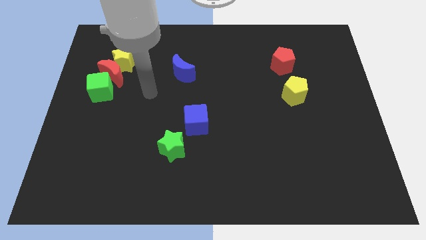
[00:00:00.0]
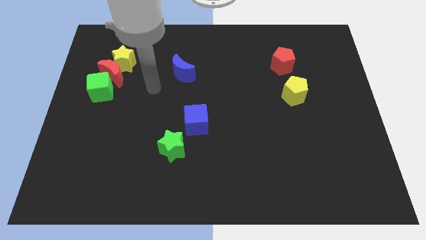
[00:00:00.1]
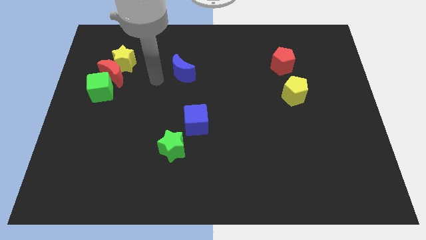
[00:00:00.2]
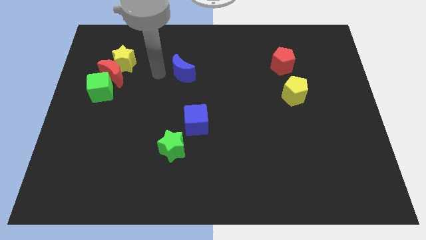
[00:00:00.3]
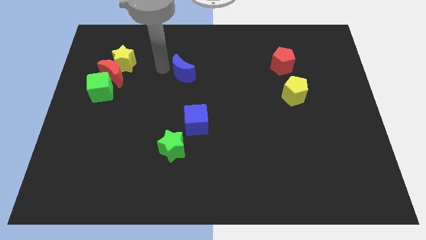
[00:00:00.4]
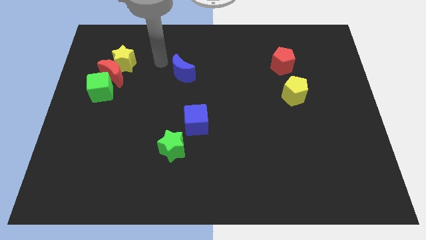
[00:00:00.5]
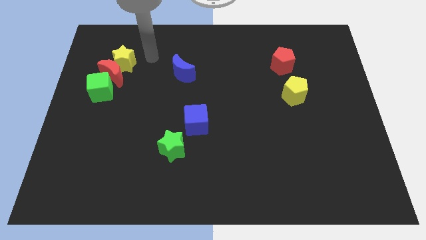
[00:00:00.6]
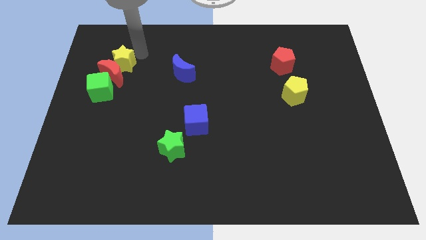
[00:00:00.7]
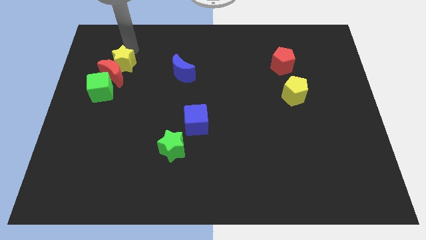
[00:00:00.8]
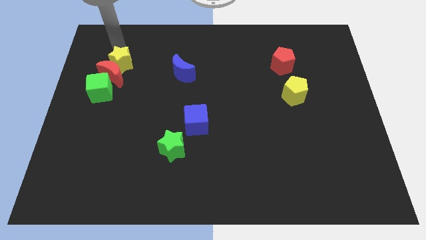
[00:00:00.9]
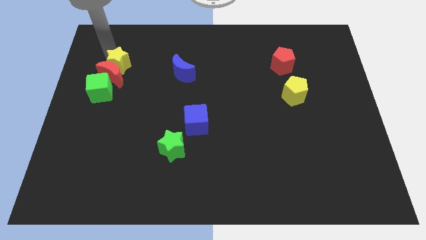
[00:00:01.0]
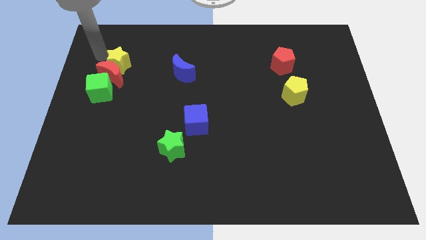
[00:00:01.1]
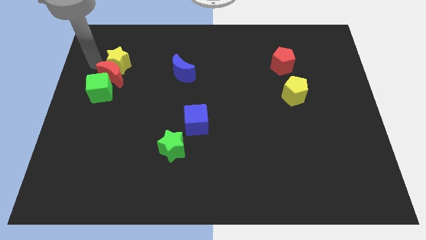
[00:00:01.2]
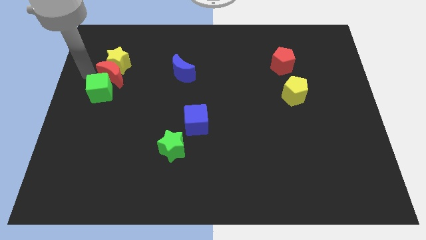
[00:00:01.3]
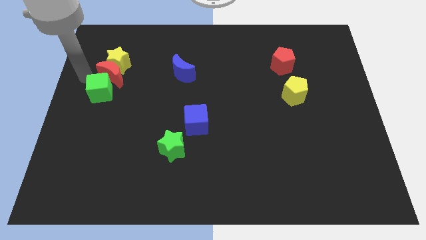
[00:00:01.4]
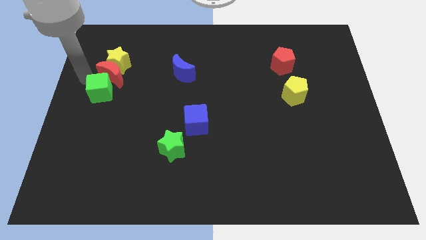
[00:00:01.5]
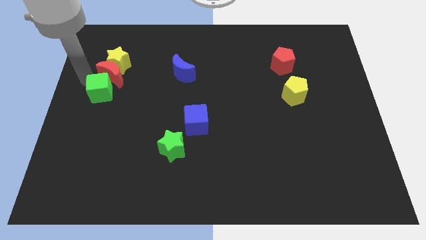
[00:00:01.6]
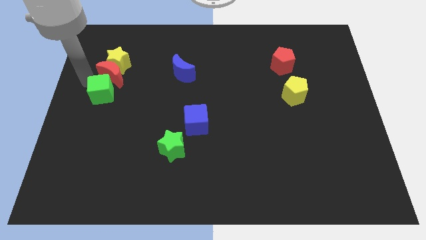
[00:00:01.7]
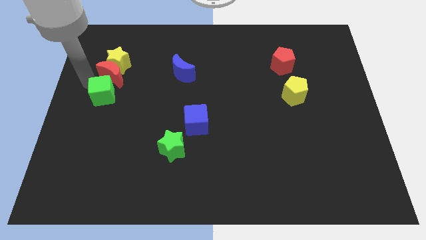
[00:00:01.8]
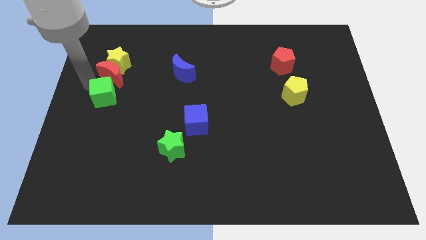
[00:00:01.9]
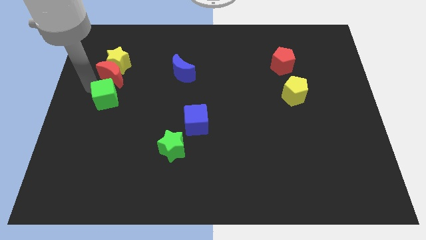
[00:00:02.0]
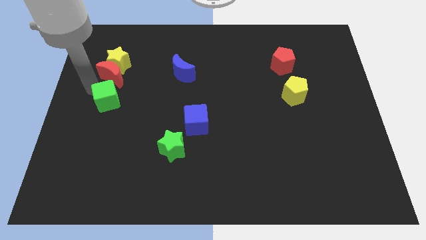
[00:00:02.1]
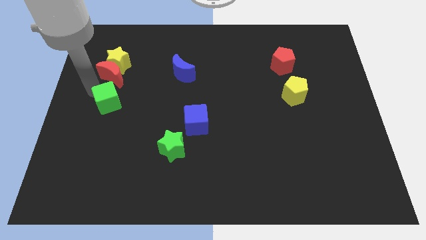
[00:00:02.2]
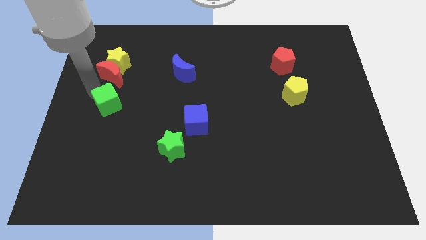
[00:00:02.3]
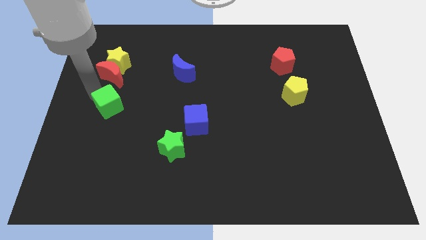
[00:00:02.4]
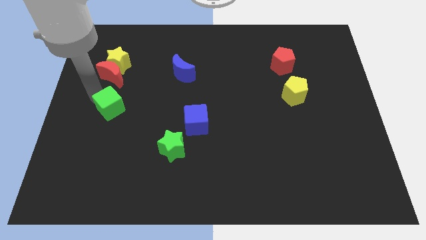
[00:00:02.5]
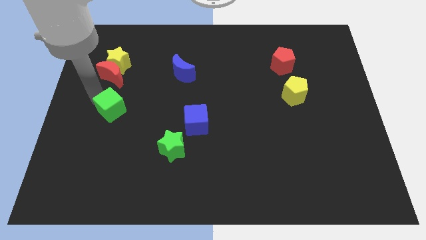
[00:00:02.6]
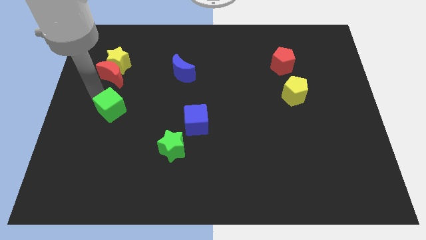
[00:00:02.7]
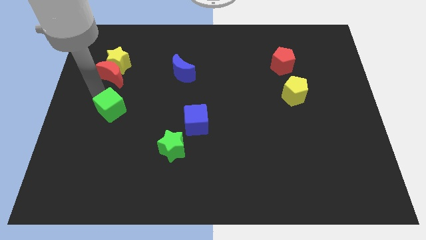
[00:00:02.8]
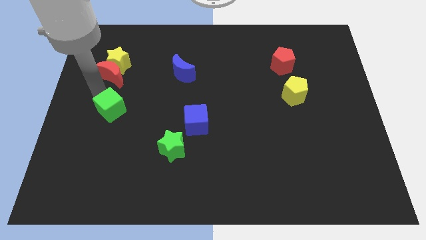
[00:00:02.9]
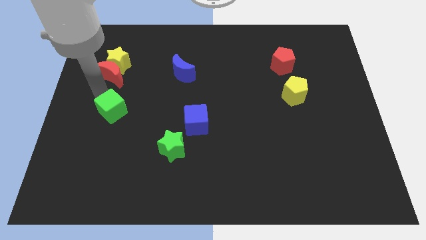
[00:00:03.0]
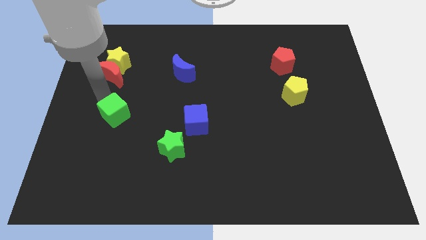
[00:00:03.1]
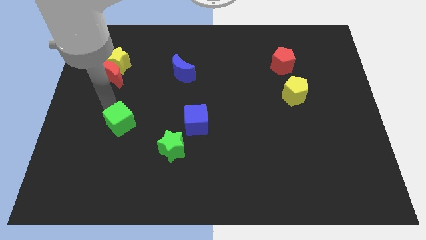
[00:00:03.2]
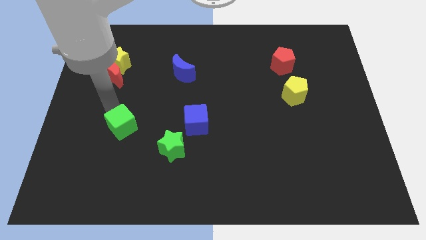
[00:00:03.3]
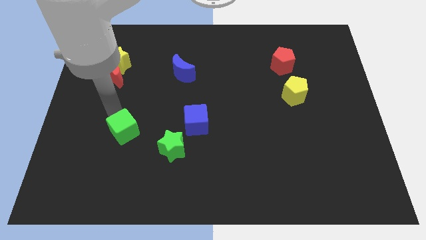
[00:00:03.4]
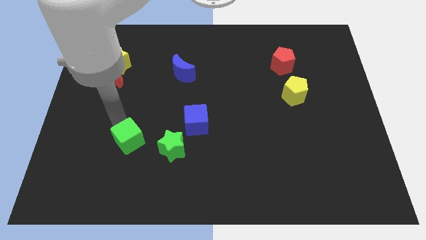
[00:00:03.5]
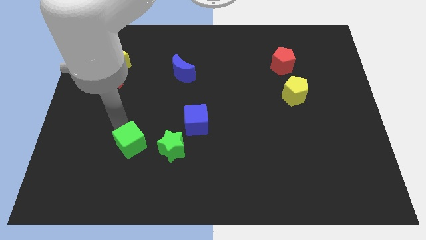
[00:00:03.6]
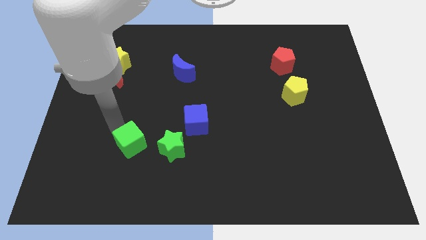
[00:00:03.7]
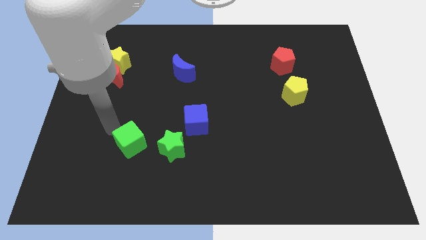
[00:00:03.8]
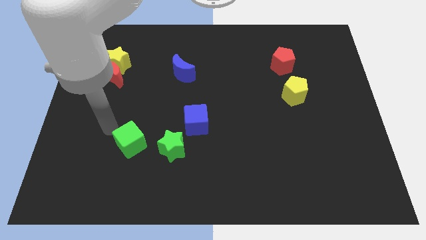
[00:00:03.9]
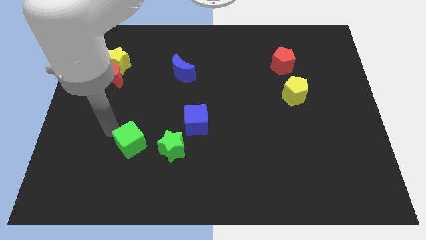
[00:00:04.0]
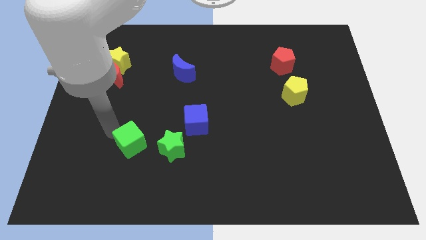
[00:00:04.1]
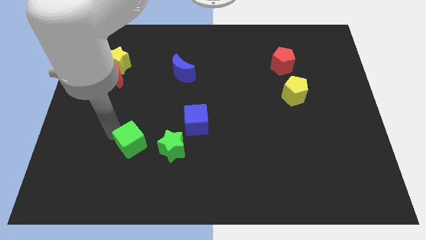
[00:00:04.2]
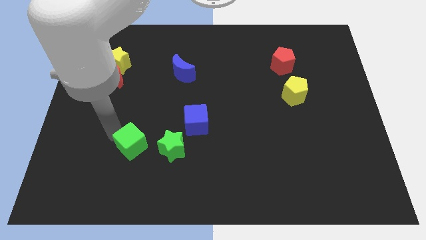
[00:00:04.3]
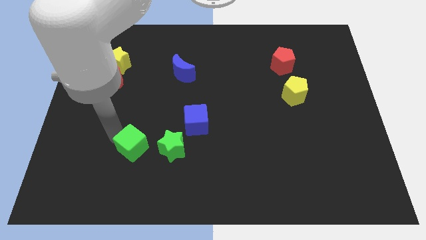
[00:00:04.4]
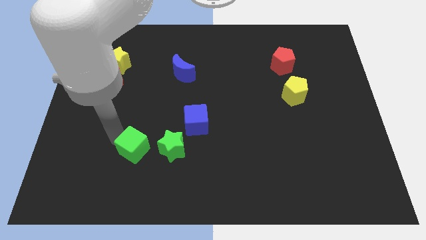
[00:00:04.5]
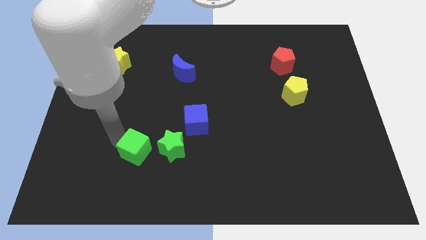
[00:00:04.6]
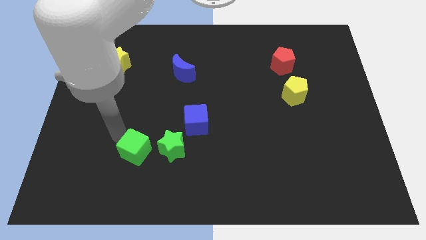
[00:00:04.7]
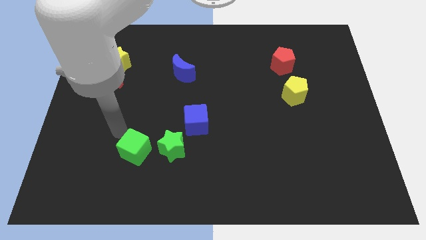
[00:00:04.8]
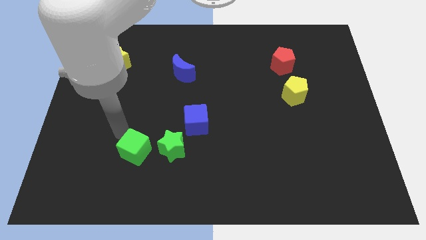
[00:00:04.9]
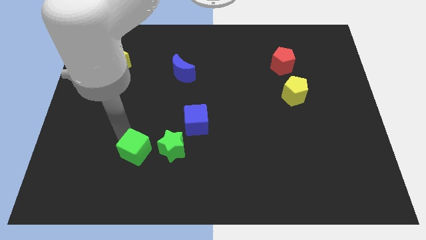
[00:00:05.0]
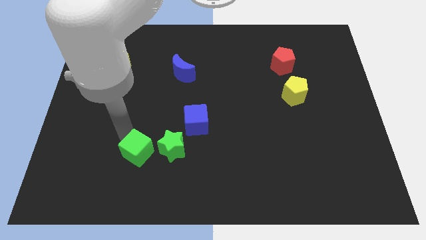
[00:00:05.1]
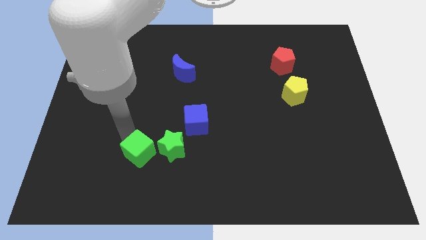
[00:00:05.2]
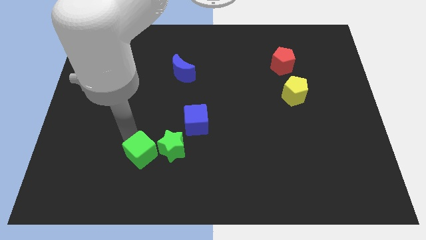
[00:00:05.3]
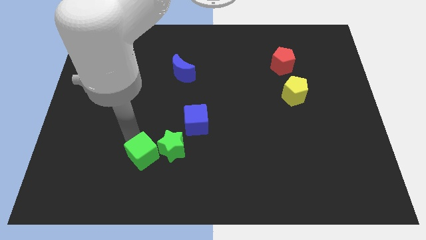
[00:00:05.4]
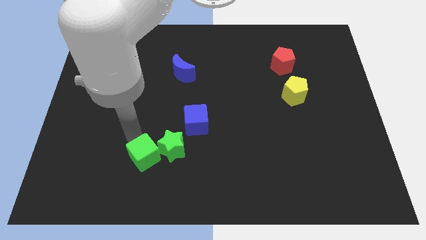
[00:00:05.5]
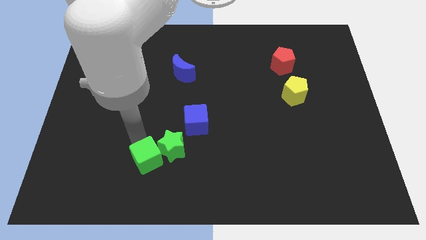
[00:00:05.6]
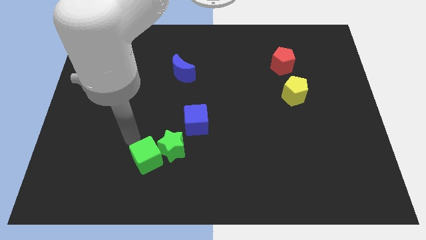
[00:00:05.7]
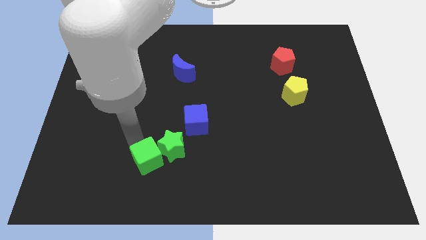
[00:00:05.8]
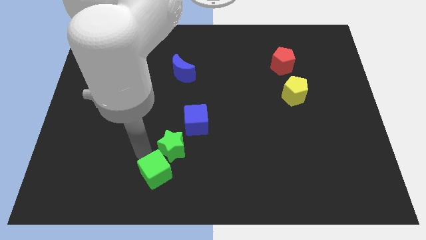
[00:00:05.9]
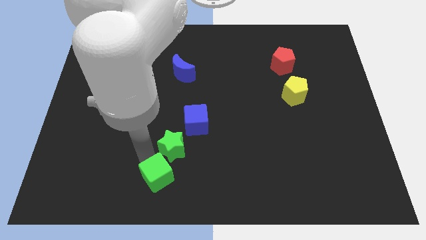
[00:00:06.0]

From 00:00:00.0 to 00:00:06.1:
push the green cube to the bottom side

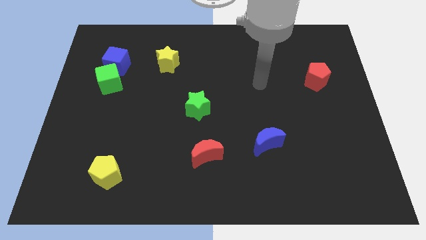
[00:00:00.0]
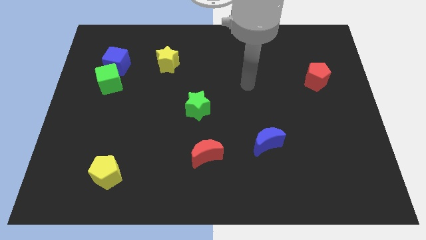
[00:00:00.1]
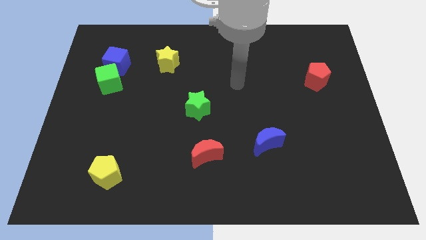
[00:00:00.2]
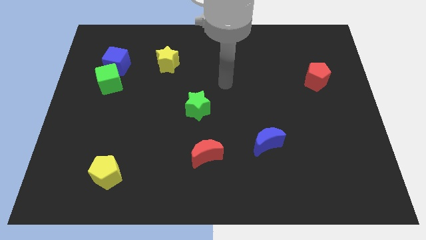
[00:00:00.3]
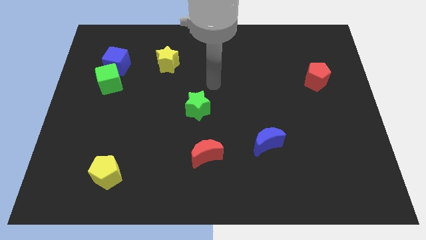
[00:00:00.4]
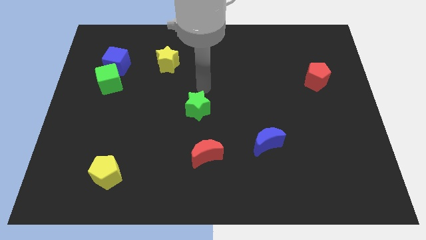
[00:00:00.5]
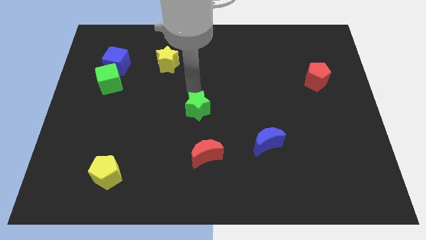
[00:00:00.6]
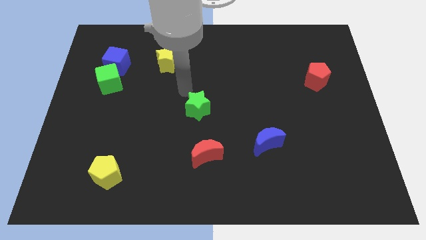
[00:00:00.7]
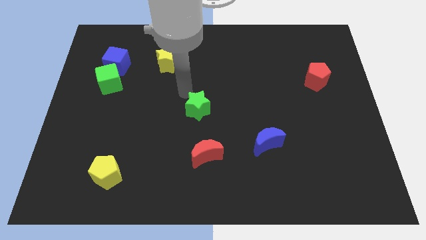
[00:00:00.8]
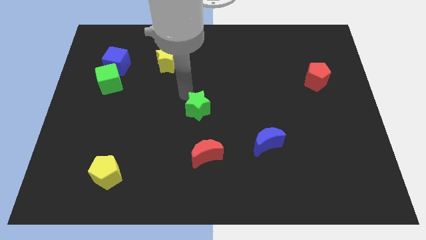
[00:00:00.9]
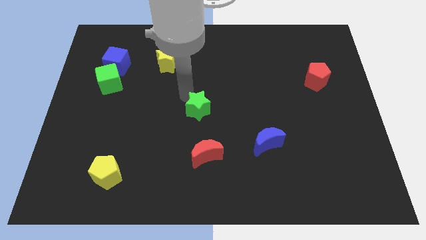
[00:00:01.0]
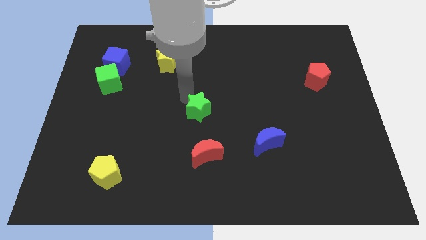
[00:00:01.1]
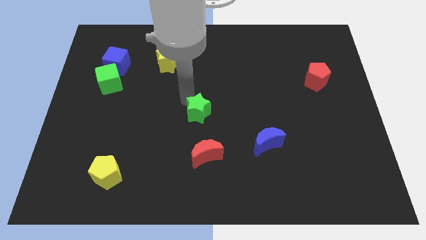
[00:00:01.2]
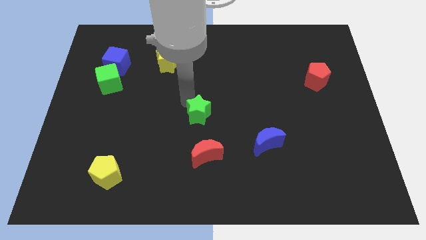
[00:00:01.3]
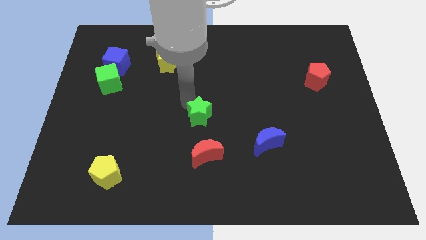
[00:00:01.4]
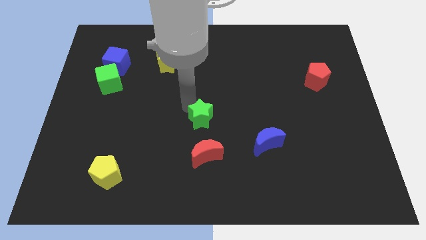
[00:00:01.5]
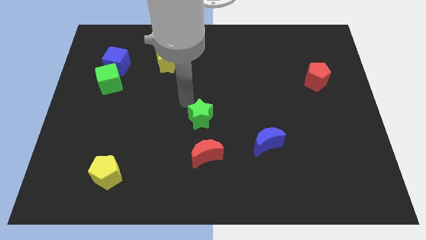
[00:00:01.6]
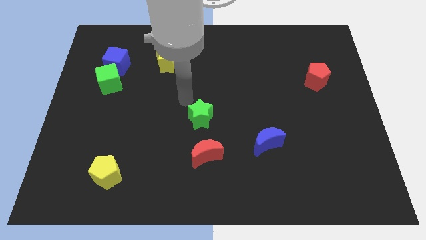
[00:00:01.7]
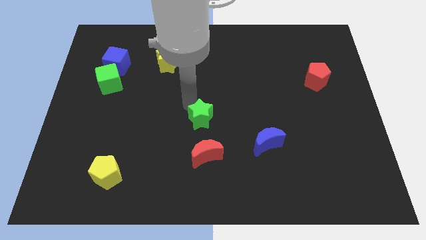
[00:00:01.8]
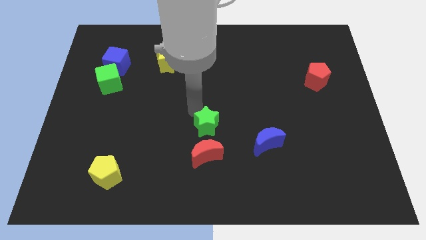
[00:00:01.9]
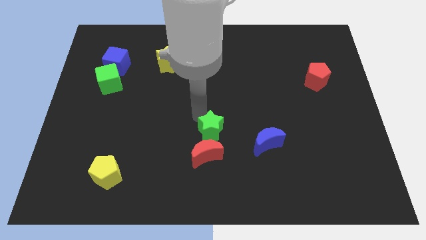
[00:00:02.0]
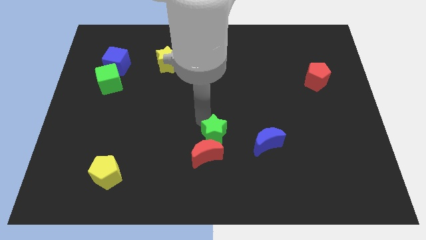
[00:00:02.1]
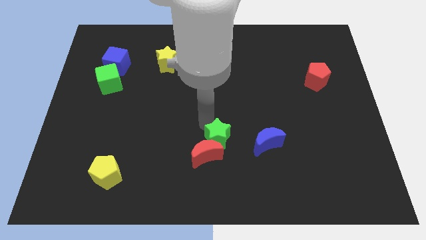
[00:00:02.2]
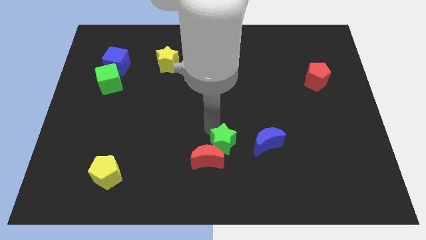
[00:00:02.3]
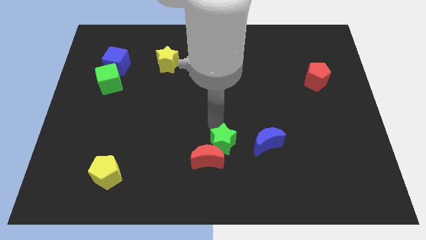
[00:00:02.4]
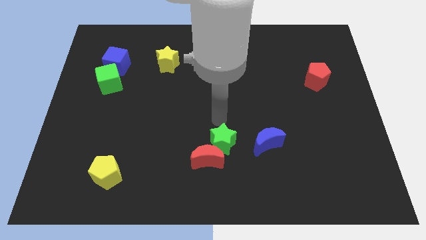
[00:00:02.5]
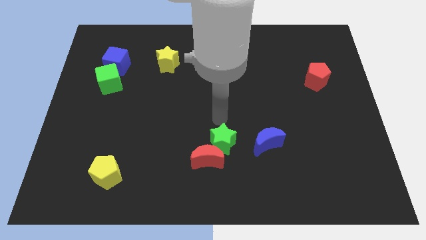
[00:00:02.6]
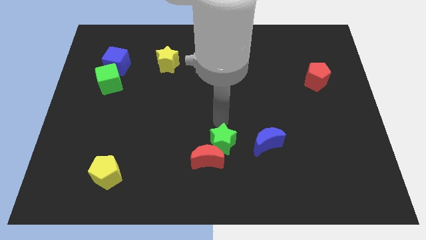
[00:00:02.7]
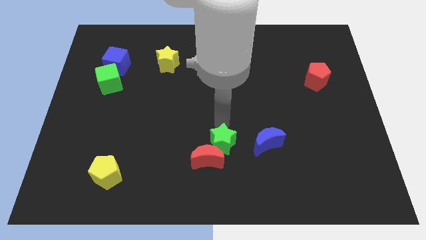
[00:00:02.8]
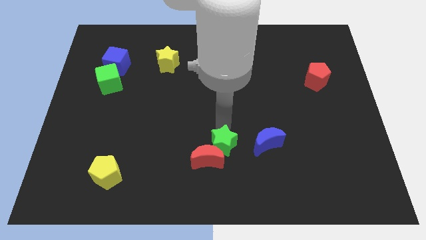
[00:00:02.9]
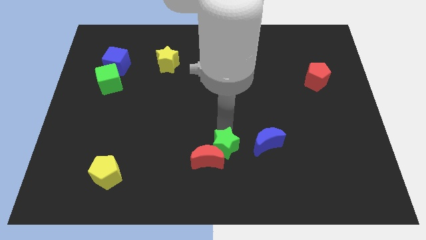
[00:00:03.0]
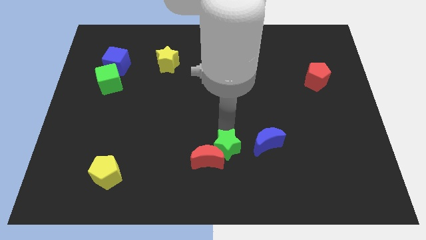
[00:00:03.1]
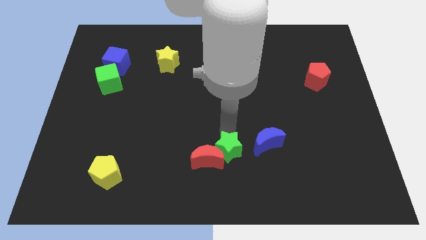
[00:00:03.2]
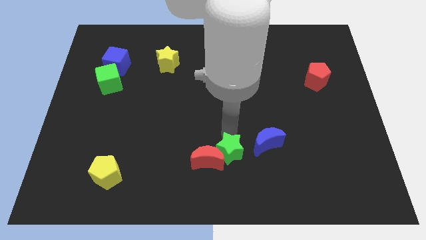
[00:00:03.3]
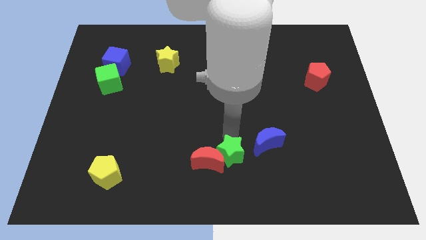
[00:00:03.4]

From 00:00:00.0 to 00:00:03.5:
move the green star to the bottom
